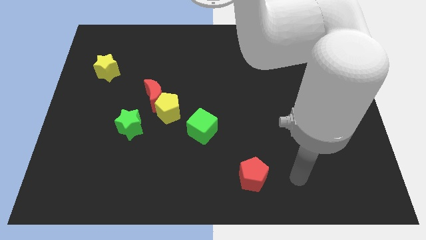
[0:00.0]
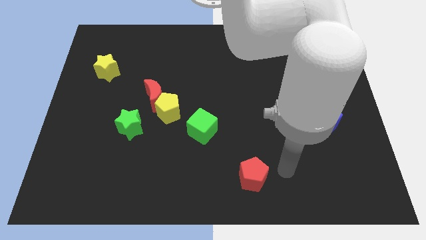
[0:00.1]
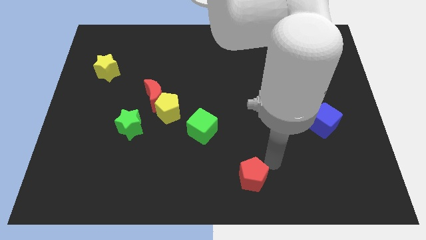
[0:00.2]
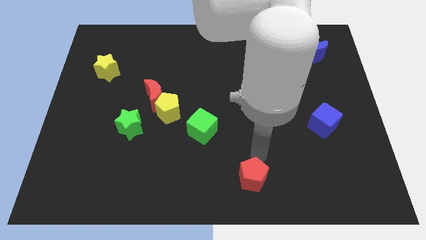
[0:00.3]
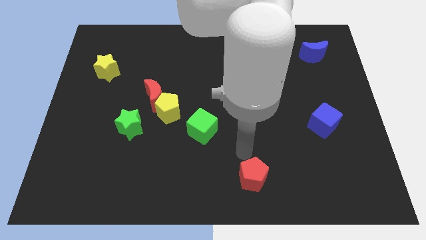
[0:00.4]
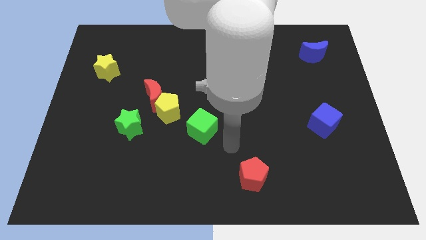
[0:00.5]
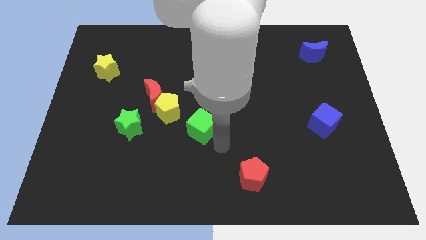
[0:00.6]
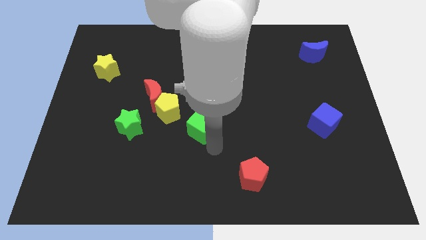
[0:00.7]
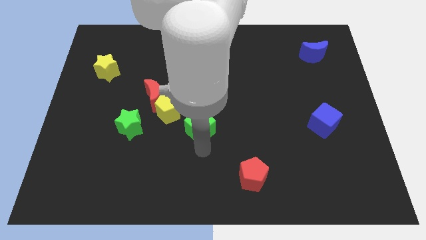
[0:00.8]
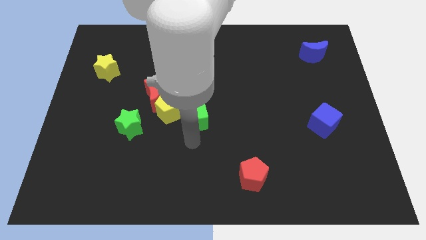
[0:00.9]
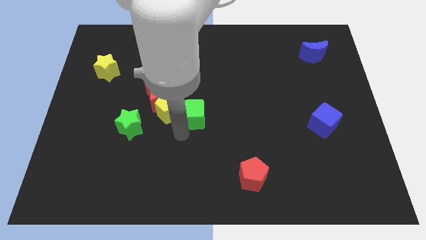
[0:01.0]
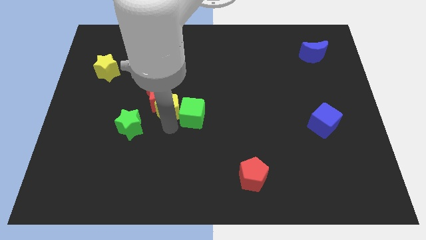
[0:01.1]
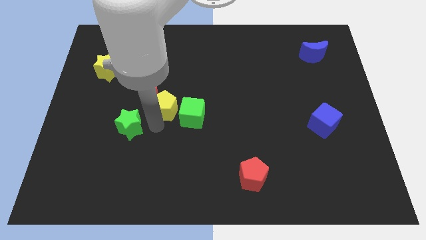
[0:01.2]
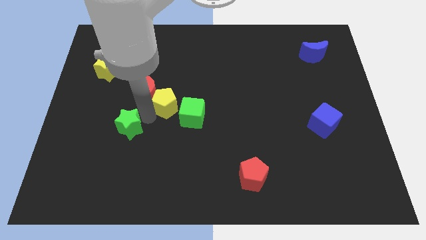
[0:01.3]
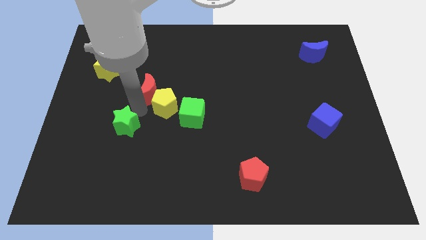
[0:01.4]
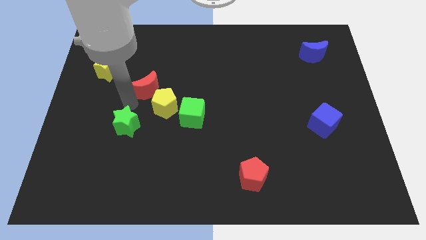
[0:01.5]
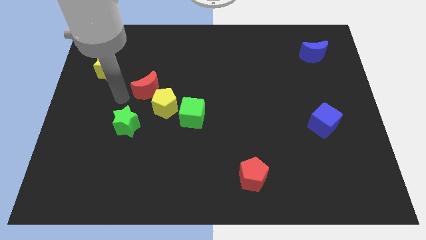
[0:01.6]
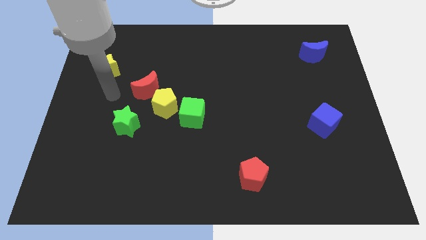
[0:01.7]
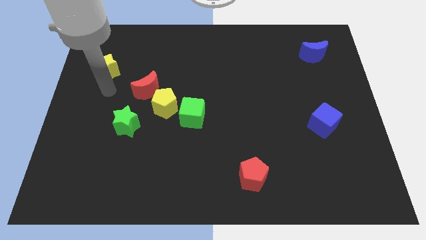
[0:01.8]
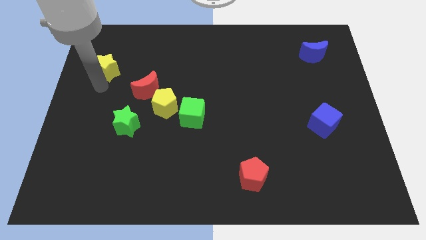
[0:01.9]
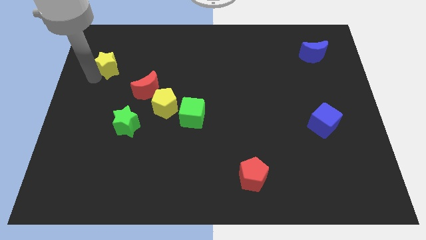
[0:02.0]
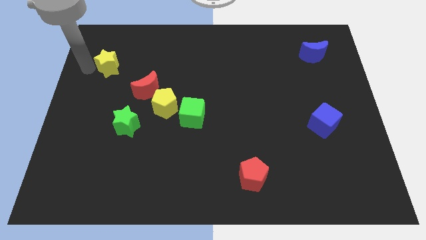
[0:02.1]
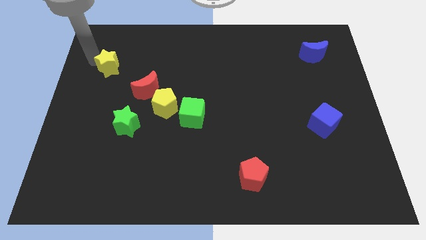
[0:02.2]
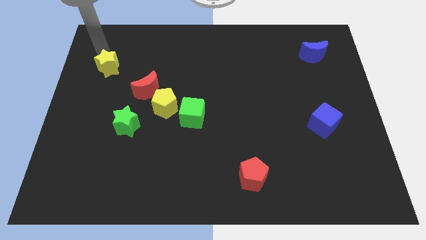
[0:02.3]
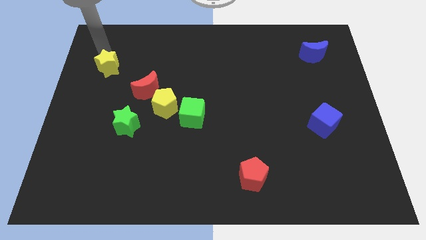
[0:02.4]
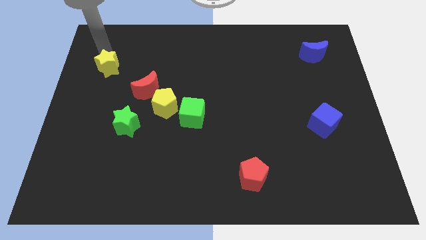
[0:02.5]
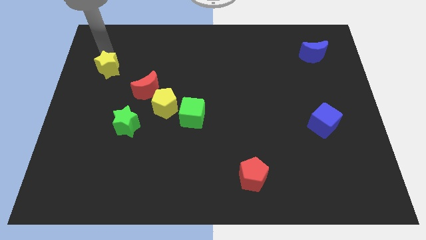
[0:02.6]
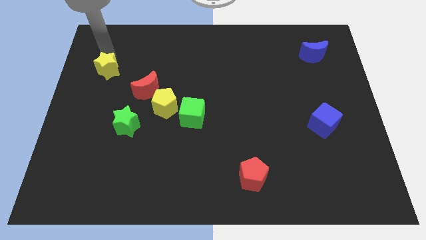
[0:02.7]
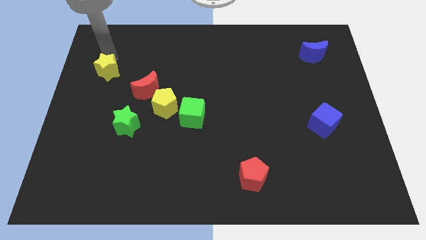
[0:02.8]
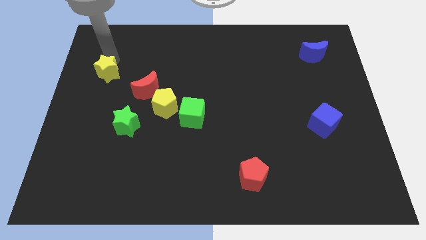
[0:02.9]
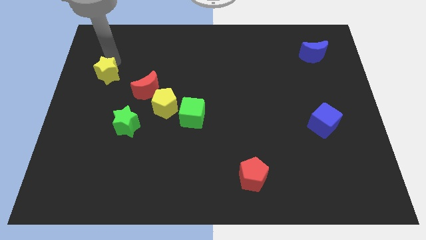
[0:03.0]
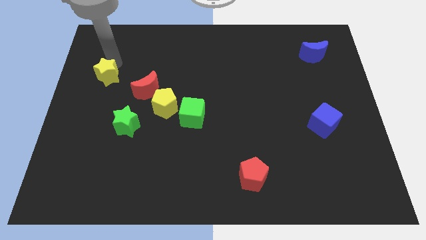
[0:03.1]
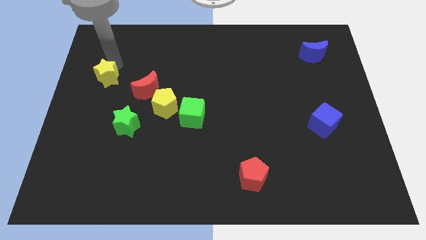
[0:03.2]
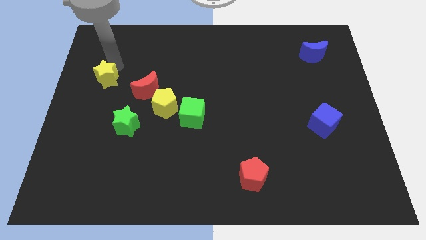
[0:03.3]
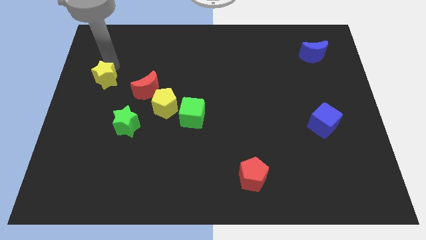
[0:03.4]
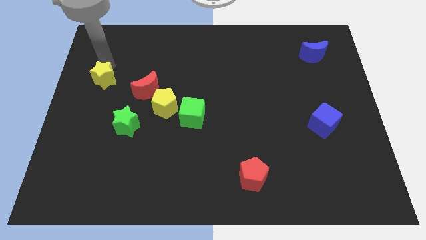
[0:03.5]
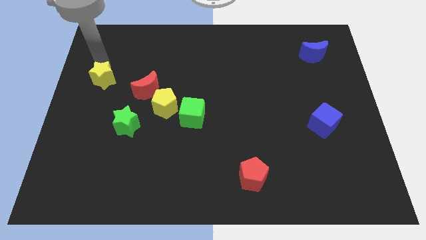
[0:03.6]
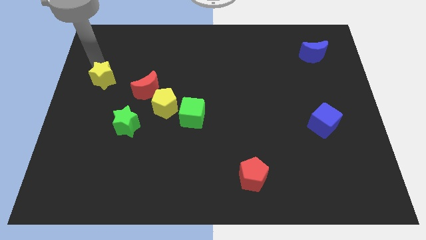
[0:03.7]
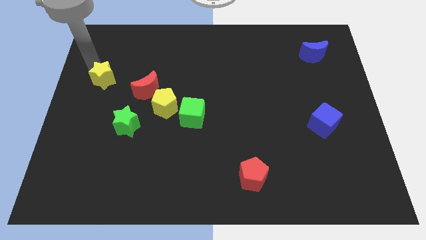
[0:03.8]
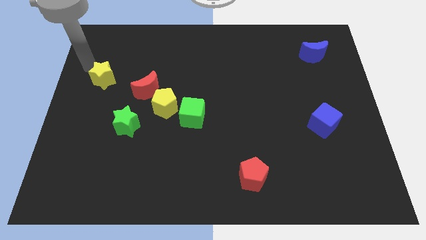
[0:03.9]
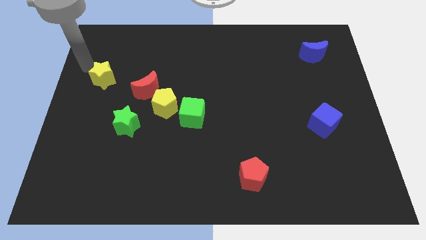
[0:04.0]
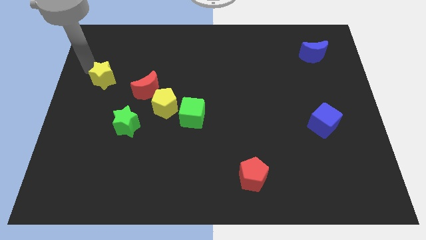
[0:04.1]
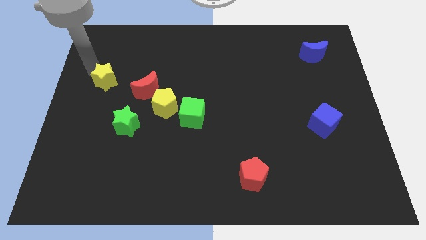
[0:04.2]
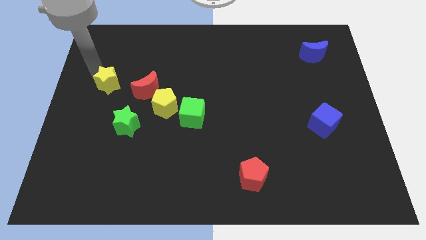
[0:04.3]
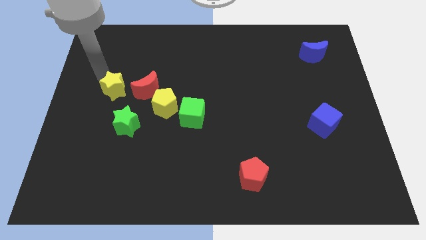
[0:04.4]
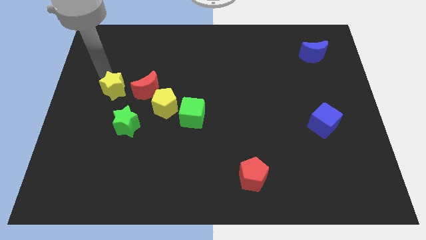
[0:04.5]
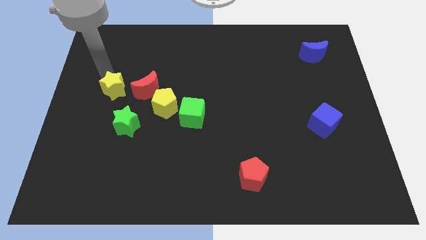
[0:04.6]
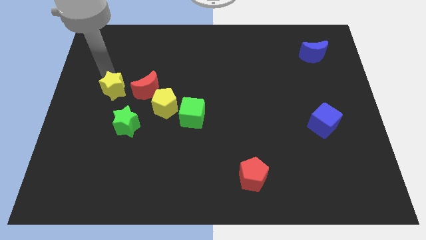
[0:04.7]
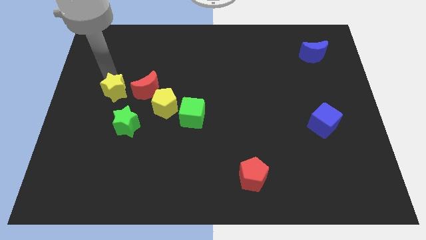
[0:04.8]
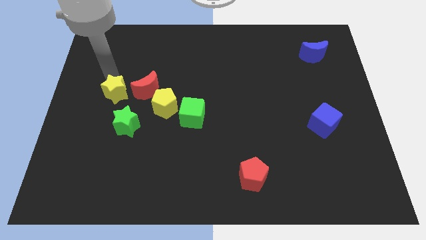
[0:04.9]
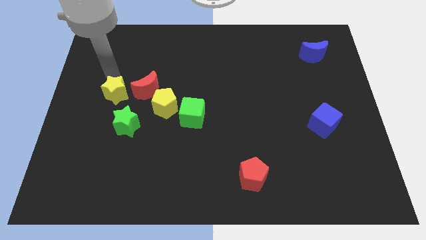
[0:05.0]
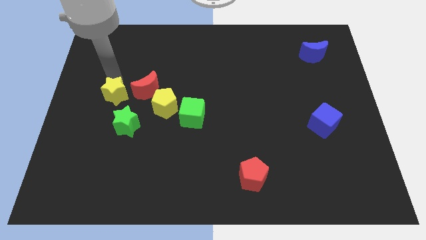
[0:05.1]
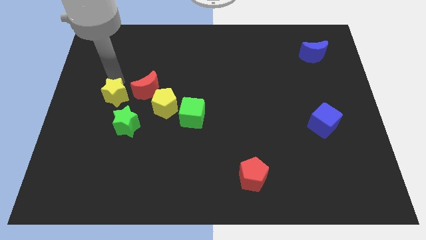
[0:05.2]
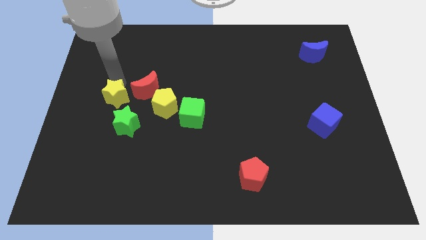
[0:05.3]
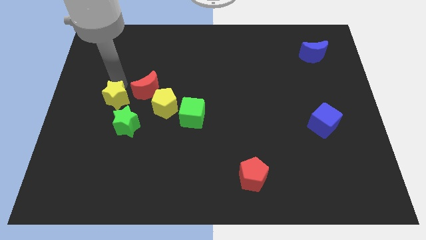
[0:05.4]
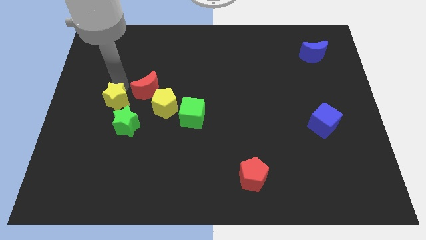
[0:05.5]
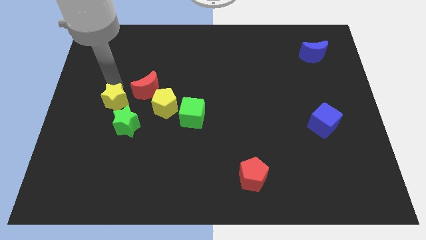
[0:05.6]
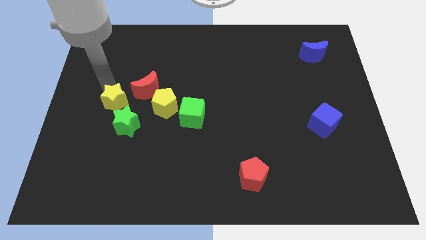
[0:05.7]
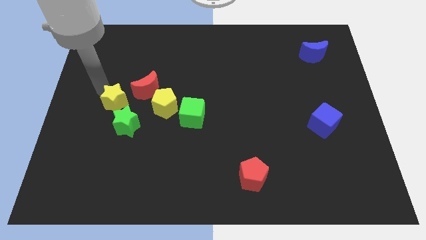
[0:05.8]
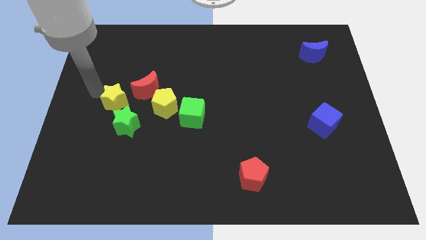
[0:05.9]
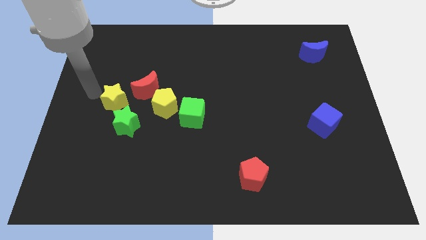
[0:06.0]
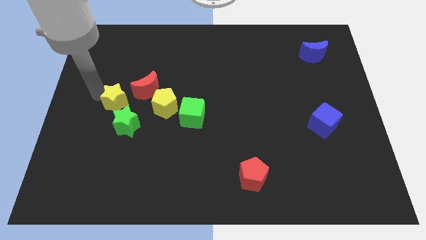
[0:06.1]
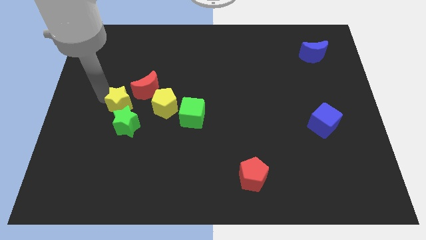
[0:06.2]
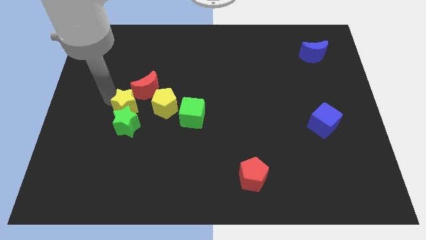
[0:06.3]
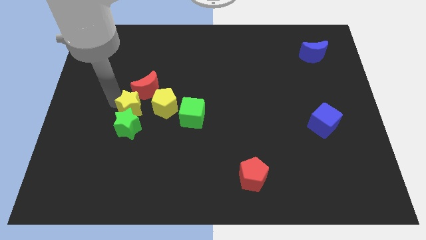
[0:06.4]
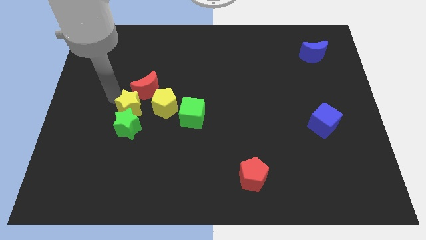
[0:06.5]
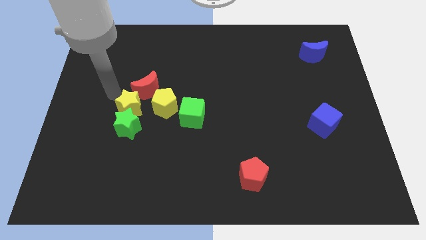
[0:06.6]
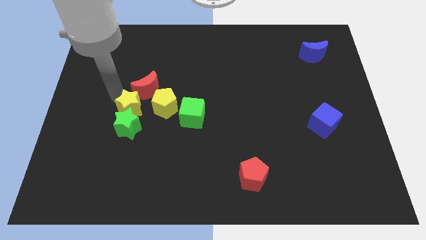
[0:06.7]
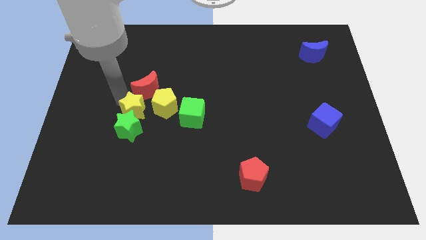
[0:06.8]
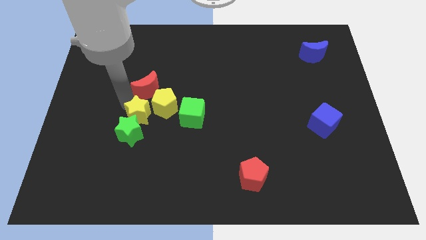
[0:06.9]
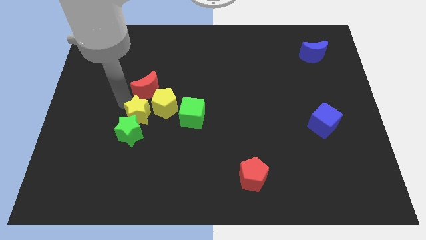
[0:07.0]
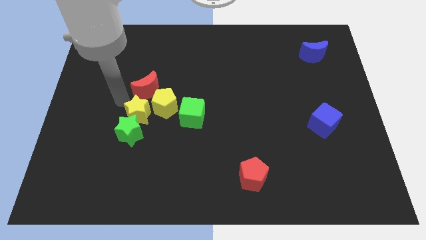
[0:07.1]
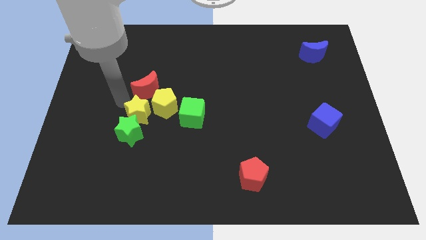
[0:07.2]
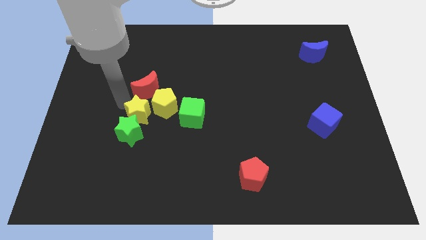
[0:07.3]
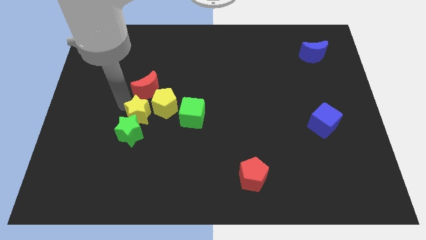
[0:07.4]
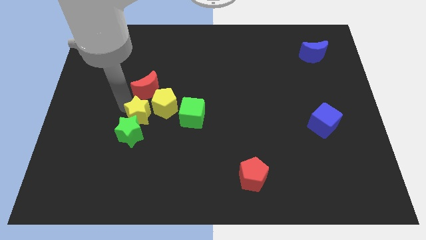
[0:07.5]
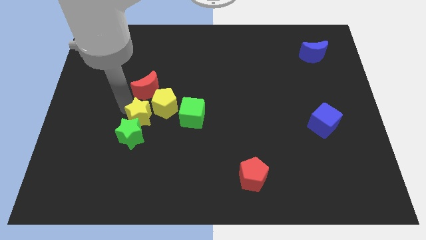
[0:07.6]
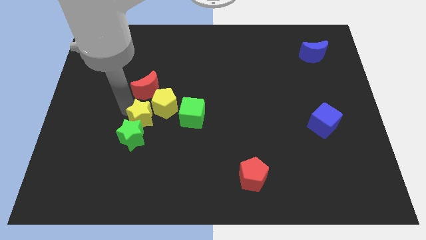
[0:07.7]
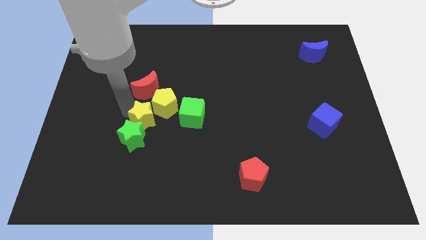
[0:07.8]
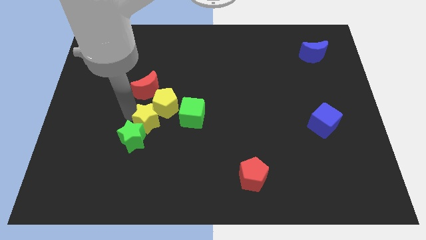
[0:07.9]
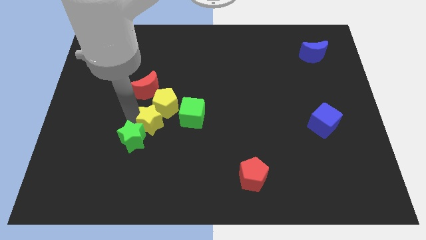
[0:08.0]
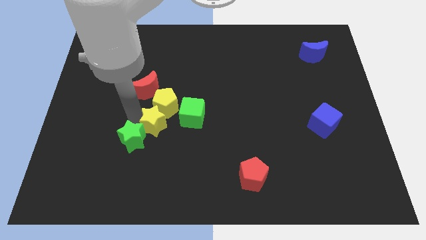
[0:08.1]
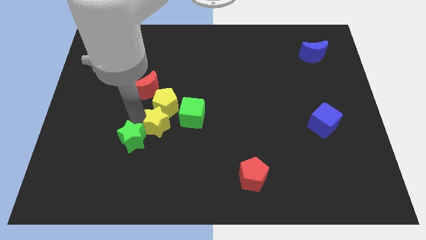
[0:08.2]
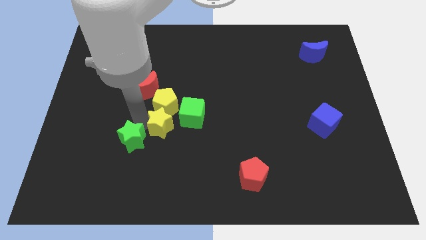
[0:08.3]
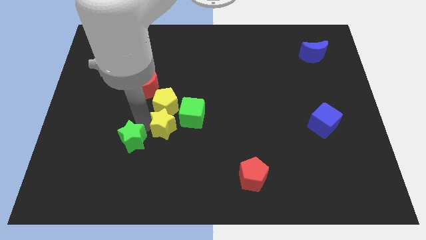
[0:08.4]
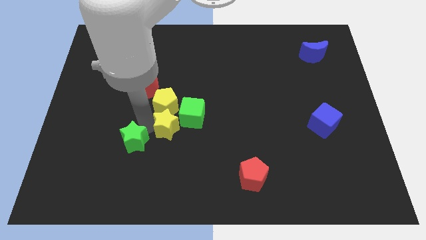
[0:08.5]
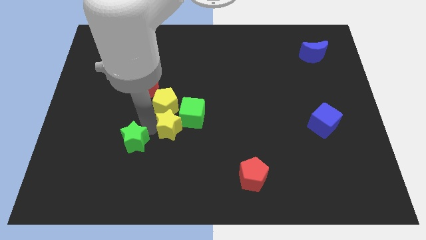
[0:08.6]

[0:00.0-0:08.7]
push the yellow star to the green cube
